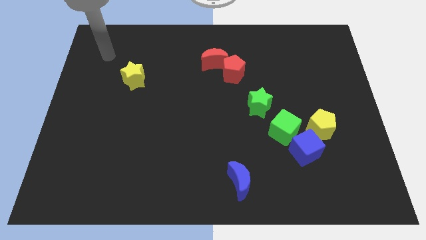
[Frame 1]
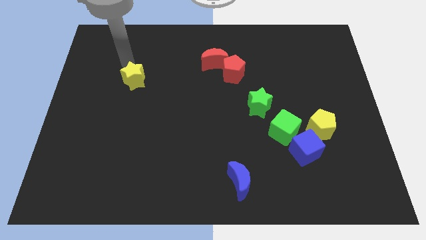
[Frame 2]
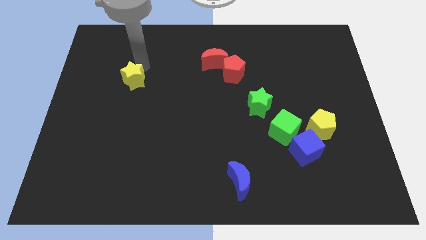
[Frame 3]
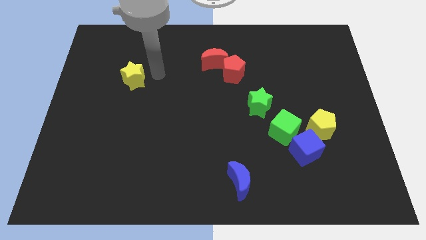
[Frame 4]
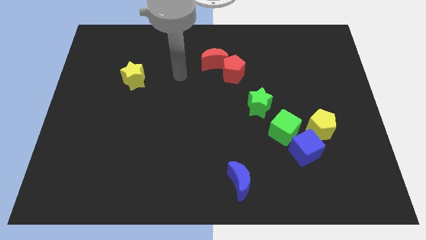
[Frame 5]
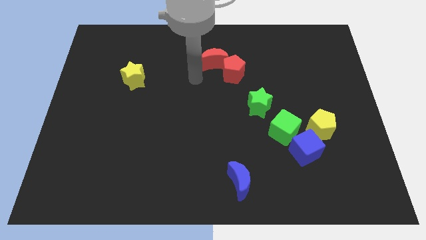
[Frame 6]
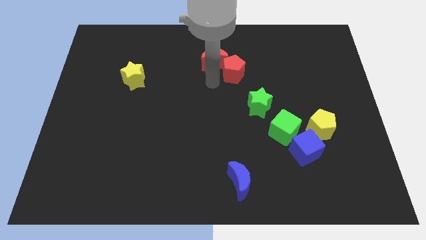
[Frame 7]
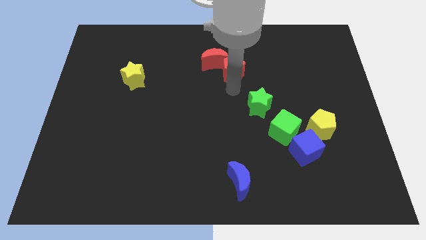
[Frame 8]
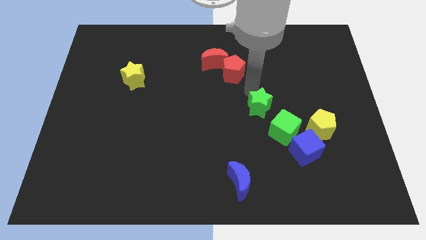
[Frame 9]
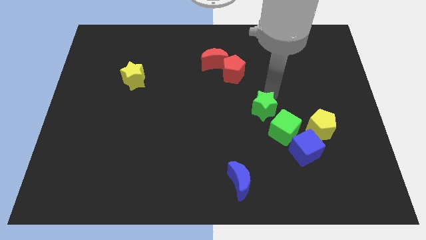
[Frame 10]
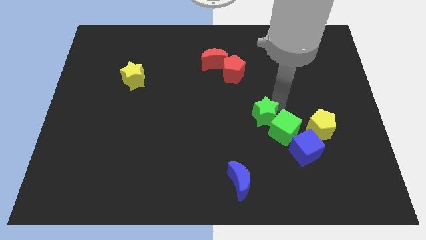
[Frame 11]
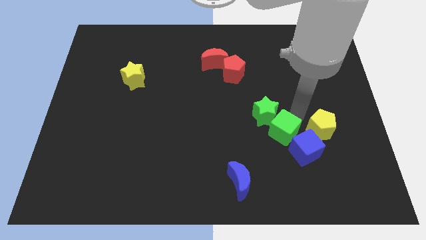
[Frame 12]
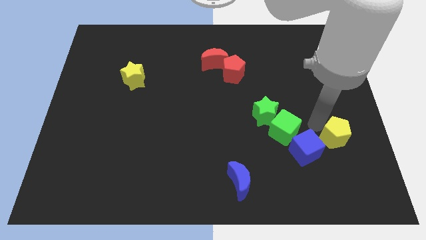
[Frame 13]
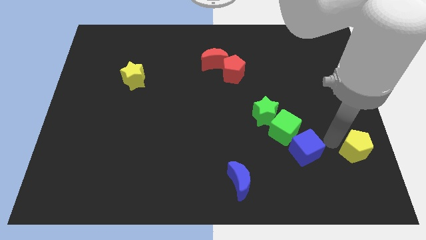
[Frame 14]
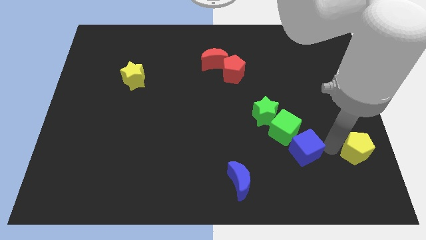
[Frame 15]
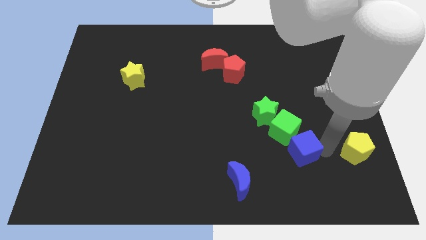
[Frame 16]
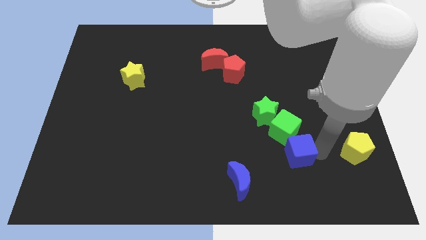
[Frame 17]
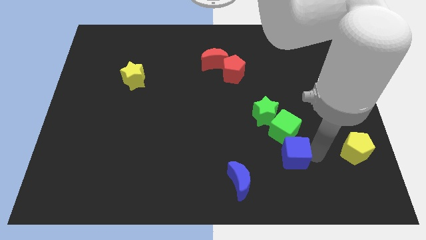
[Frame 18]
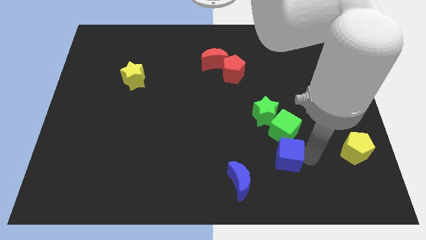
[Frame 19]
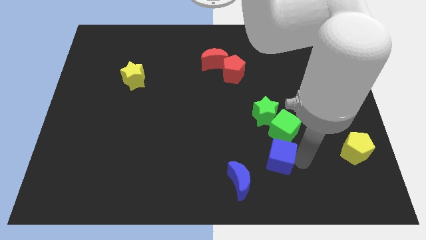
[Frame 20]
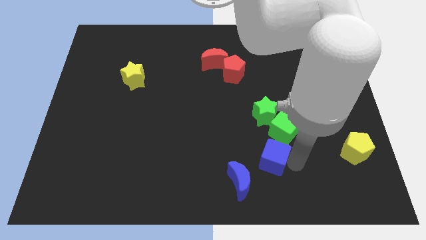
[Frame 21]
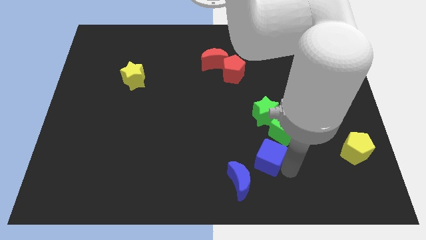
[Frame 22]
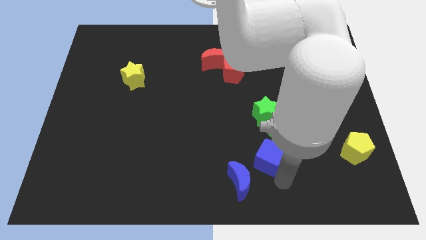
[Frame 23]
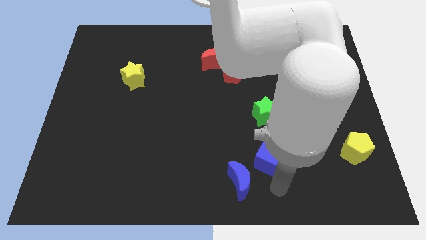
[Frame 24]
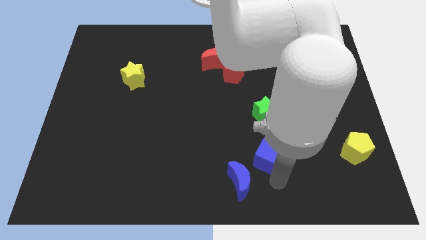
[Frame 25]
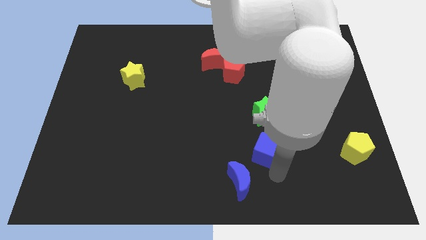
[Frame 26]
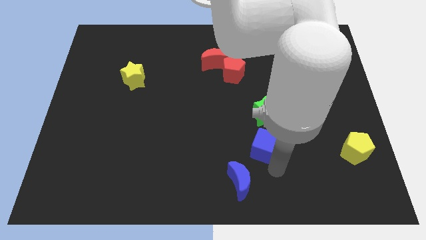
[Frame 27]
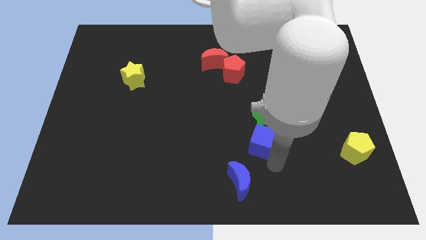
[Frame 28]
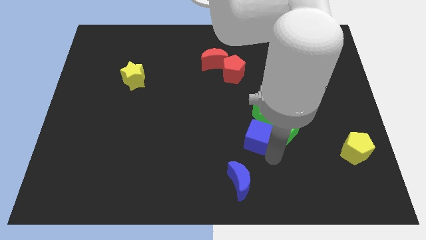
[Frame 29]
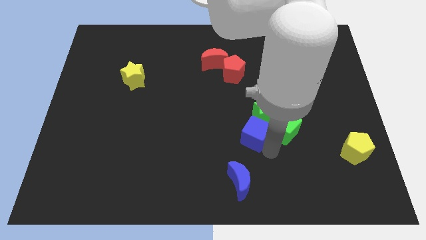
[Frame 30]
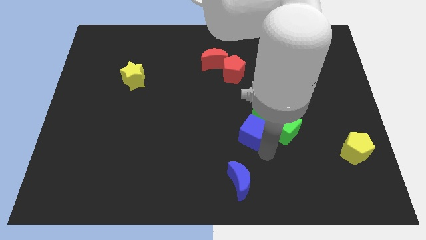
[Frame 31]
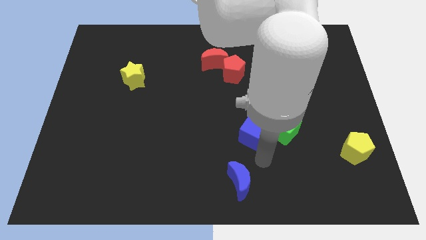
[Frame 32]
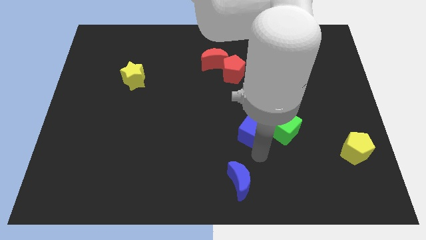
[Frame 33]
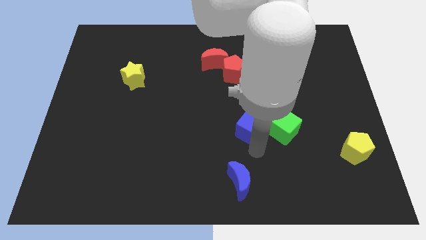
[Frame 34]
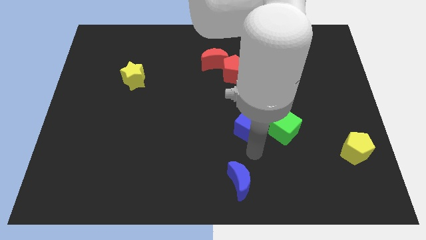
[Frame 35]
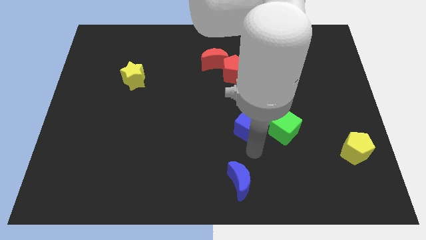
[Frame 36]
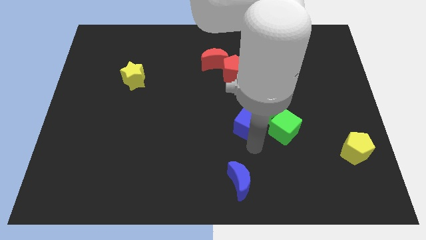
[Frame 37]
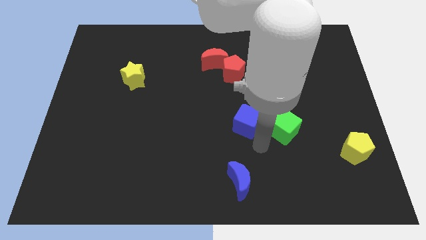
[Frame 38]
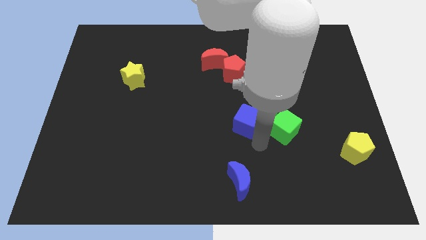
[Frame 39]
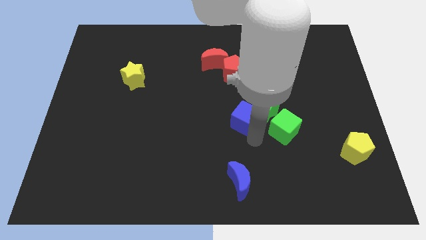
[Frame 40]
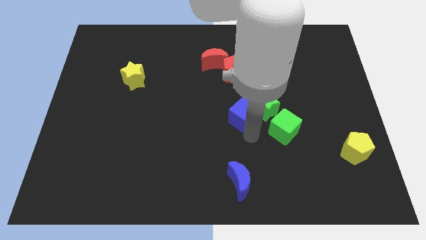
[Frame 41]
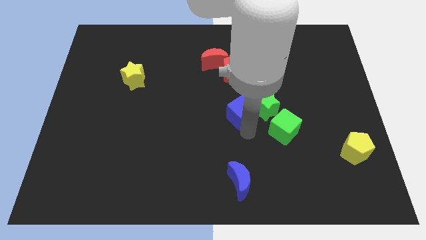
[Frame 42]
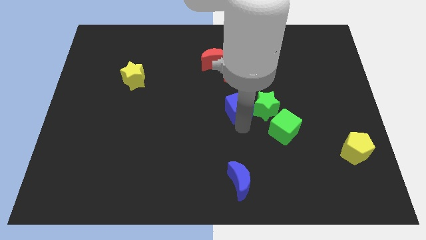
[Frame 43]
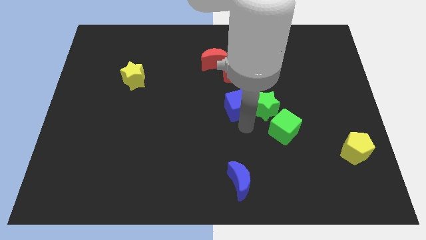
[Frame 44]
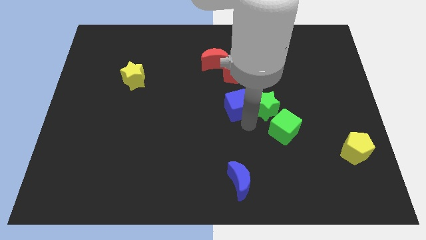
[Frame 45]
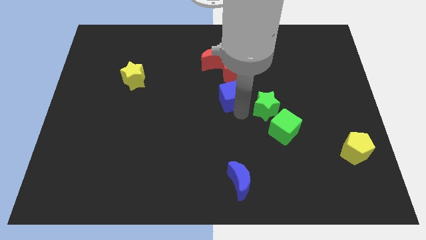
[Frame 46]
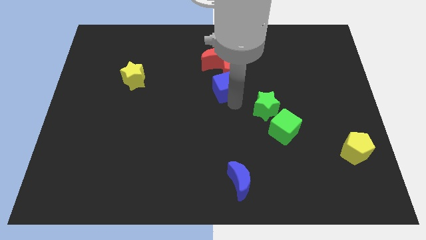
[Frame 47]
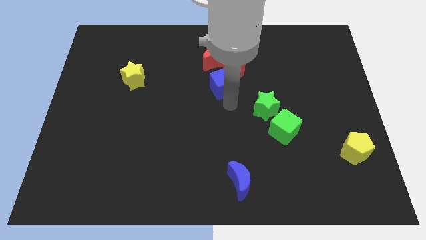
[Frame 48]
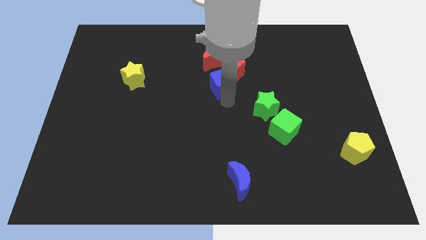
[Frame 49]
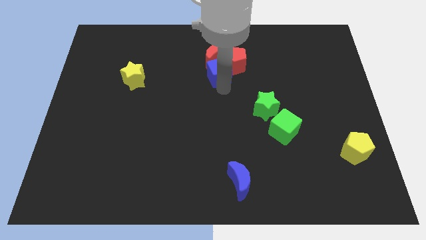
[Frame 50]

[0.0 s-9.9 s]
put the blue cube to the red moon

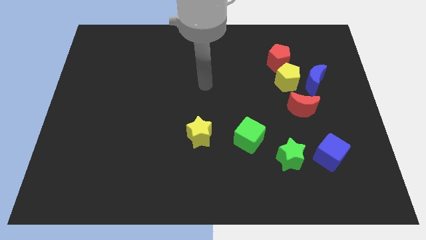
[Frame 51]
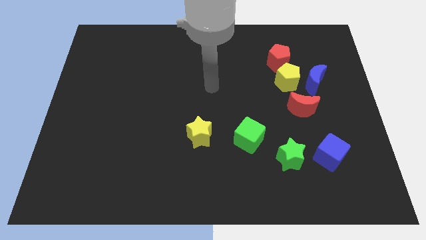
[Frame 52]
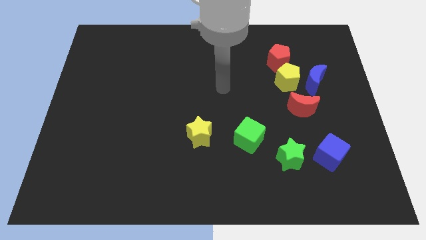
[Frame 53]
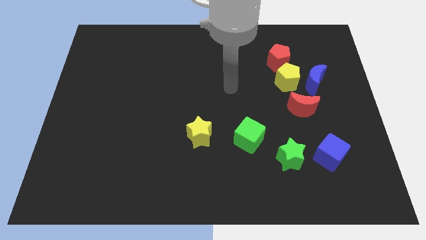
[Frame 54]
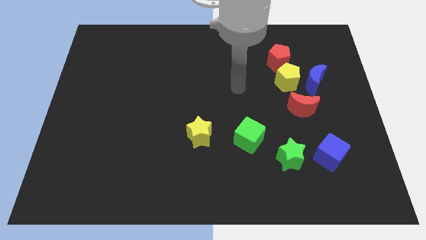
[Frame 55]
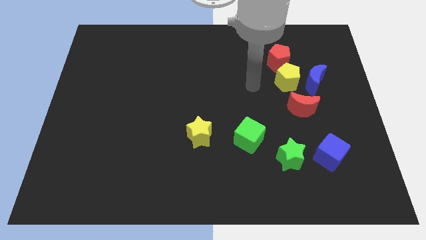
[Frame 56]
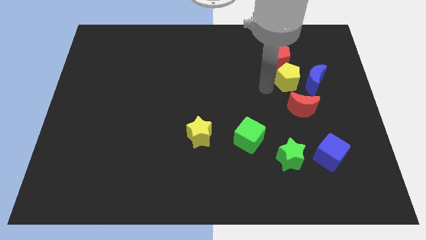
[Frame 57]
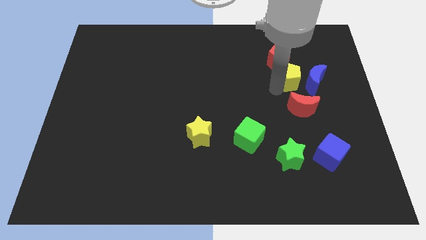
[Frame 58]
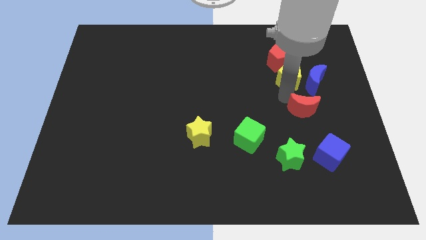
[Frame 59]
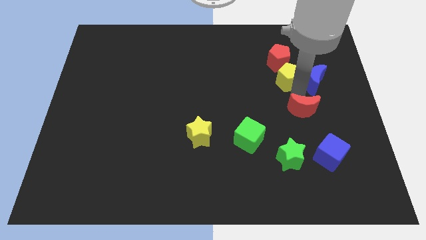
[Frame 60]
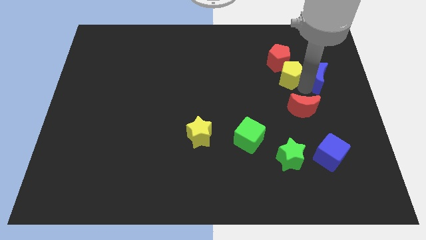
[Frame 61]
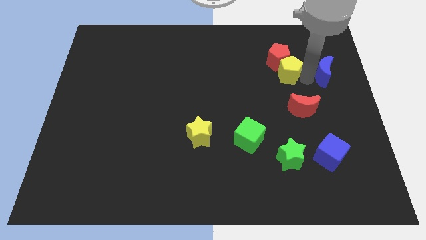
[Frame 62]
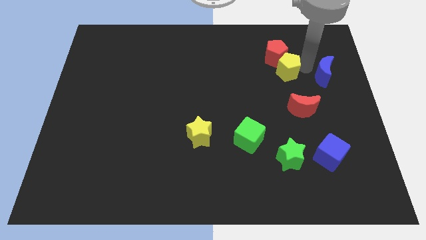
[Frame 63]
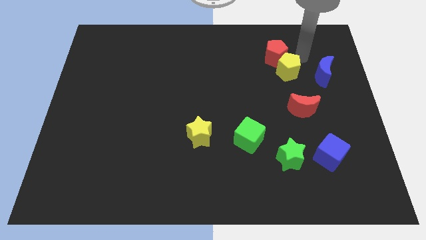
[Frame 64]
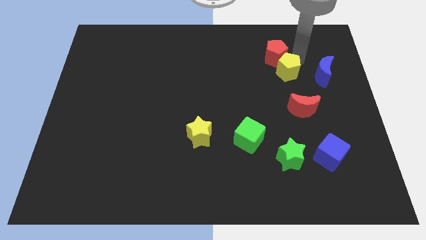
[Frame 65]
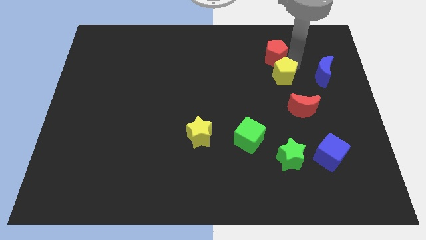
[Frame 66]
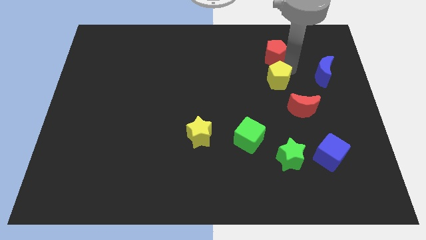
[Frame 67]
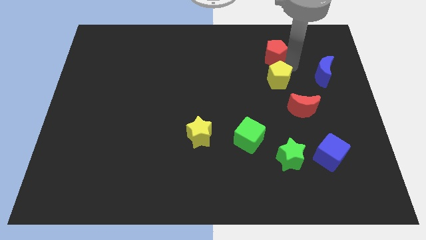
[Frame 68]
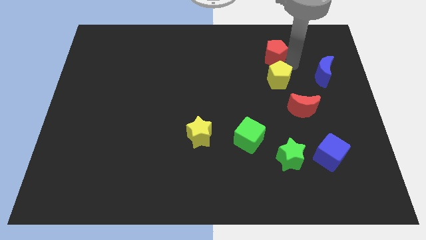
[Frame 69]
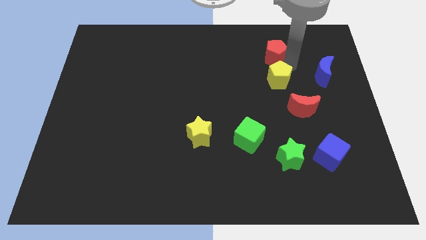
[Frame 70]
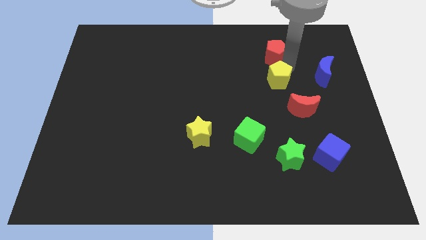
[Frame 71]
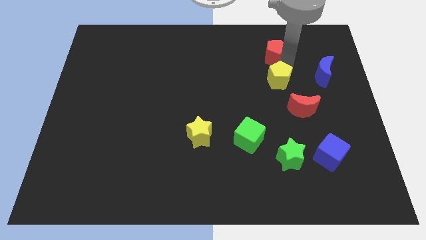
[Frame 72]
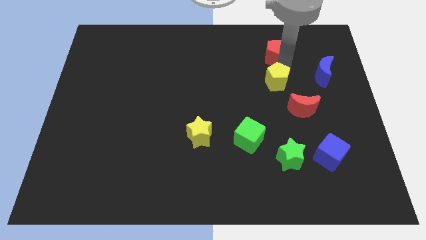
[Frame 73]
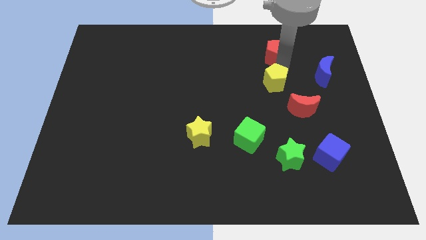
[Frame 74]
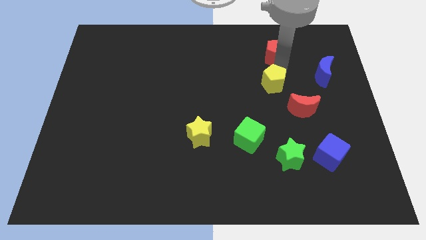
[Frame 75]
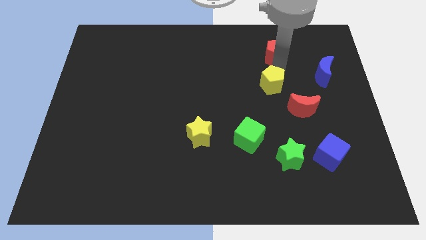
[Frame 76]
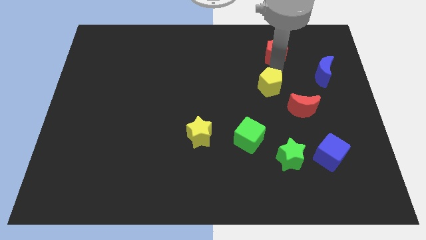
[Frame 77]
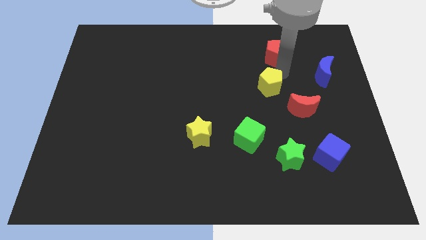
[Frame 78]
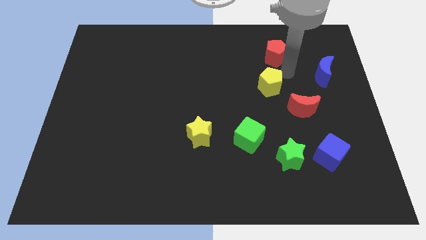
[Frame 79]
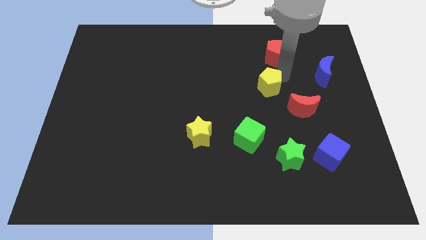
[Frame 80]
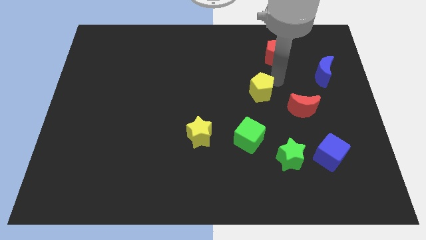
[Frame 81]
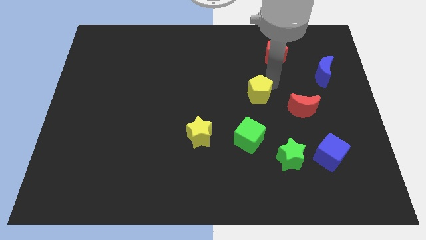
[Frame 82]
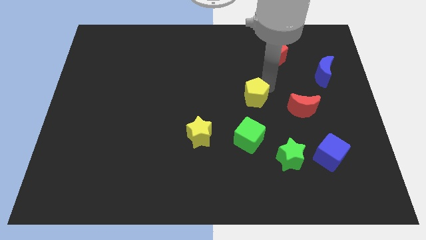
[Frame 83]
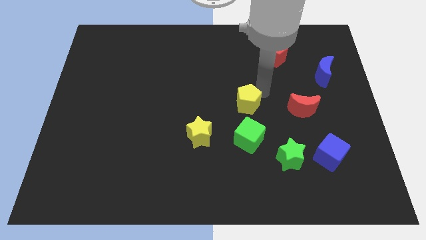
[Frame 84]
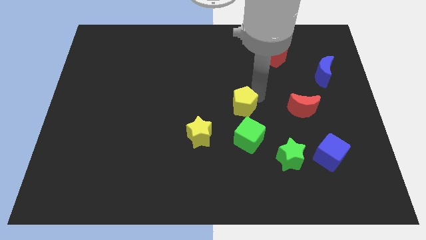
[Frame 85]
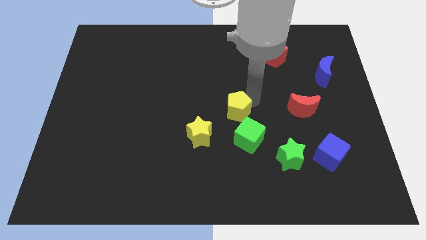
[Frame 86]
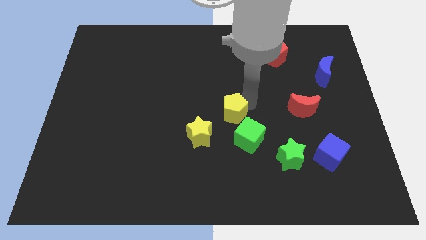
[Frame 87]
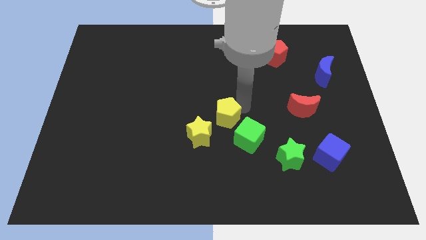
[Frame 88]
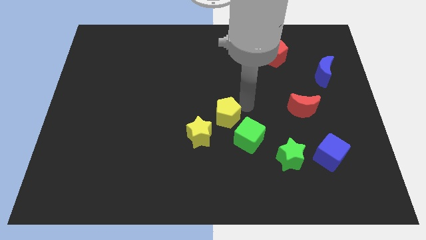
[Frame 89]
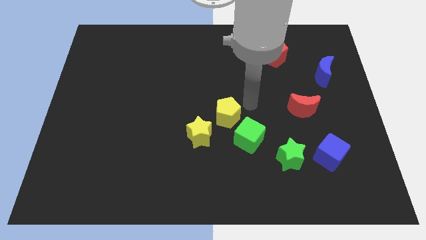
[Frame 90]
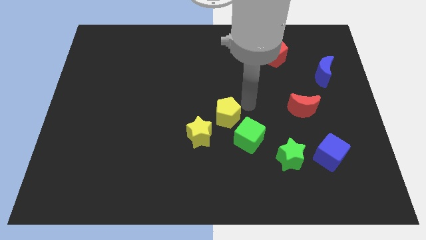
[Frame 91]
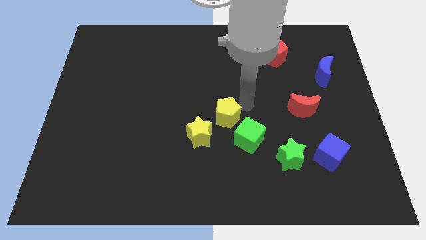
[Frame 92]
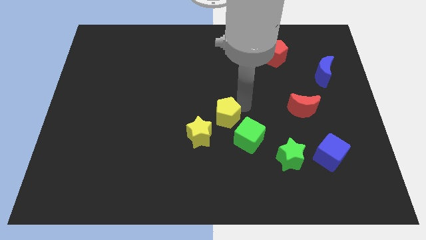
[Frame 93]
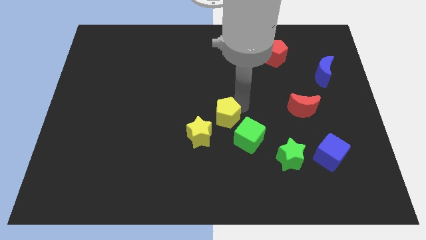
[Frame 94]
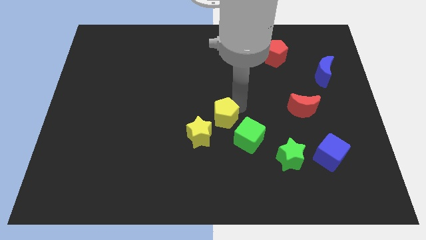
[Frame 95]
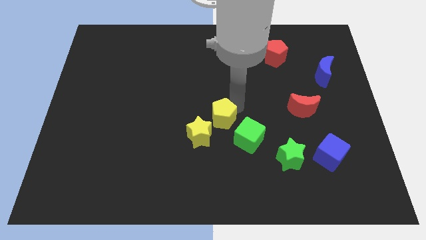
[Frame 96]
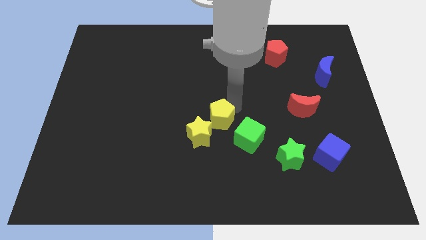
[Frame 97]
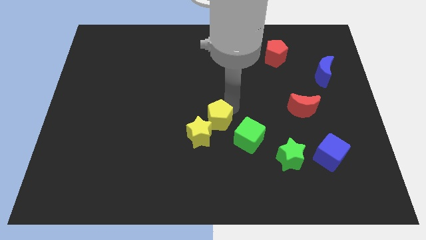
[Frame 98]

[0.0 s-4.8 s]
slide the yellow pentagon close to the yellow star
